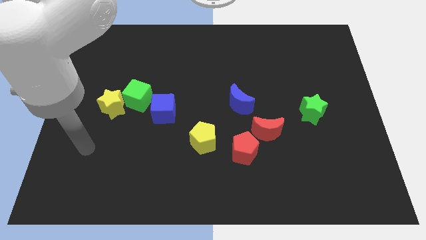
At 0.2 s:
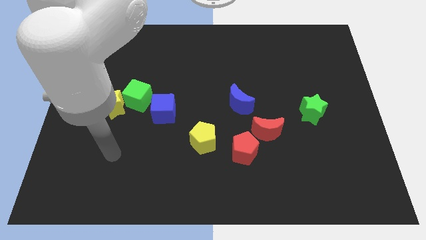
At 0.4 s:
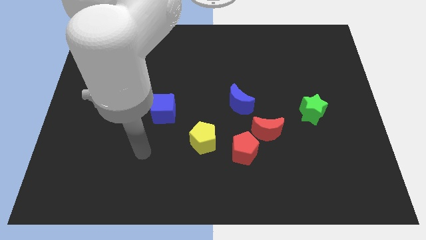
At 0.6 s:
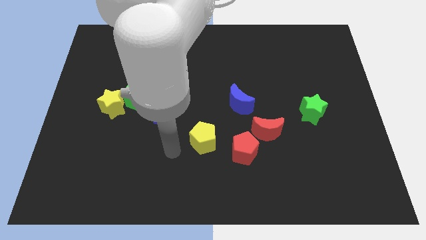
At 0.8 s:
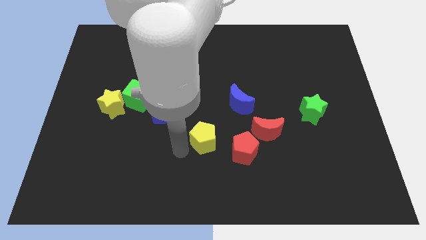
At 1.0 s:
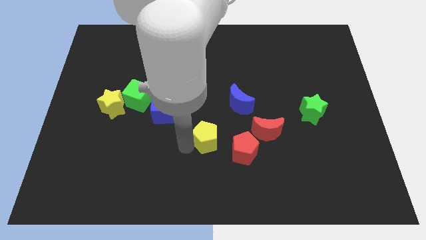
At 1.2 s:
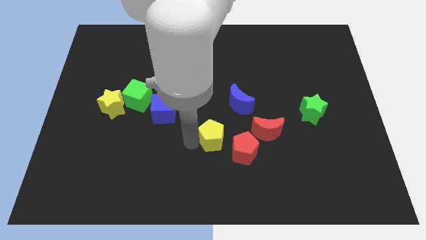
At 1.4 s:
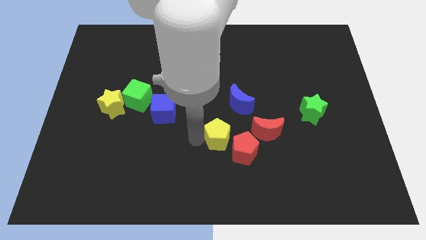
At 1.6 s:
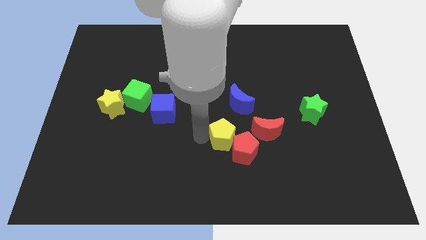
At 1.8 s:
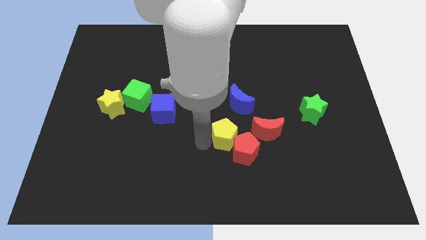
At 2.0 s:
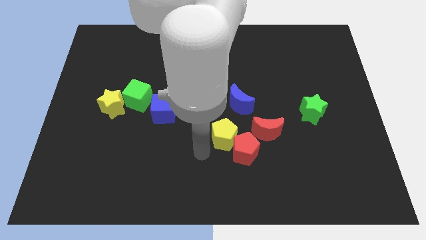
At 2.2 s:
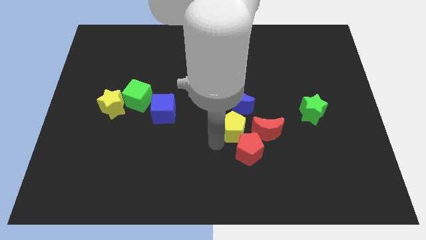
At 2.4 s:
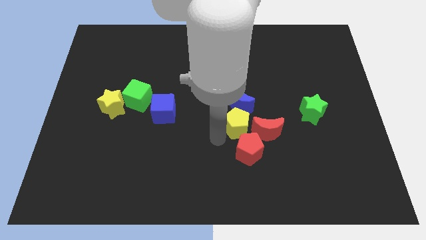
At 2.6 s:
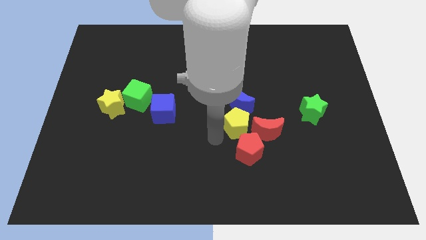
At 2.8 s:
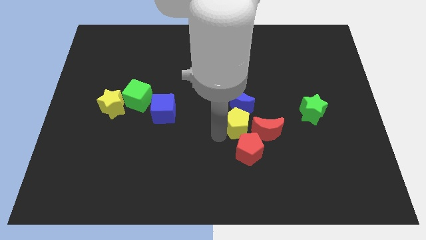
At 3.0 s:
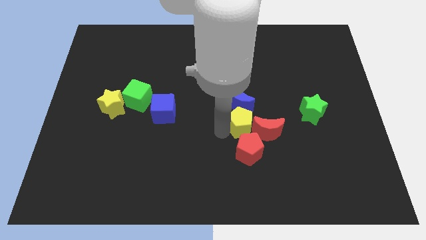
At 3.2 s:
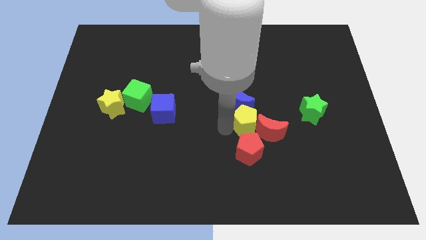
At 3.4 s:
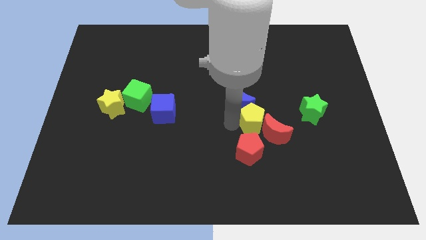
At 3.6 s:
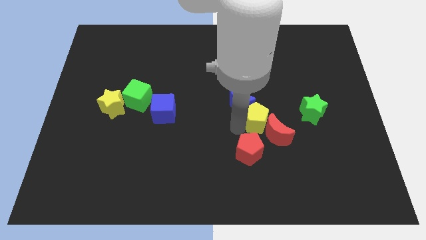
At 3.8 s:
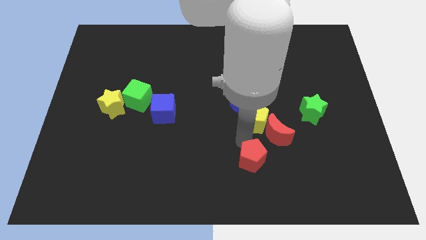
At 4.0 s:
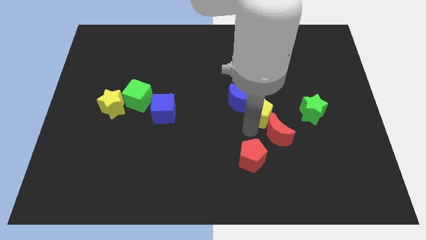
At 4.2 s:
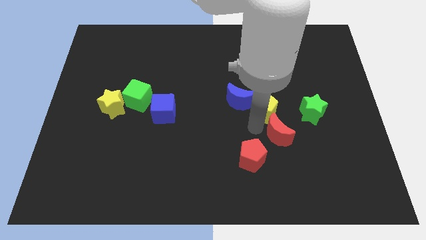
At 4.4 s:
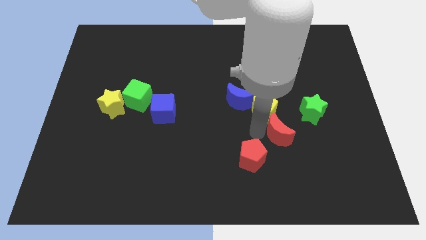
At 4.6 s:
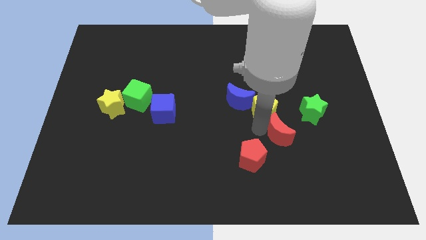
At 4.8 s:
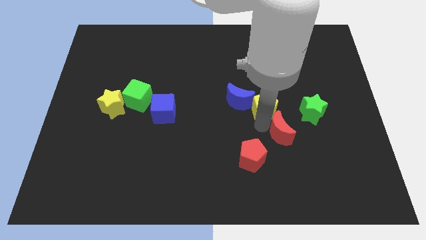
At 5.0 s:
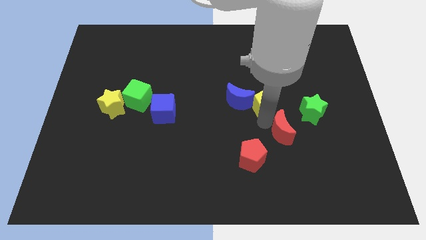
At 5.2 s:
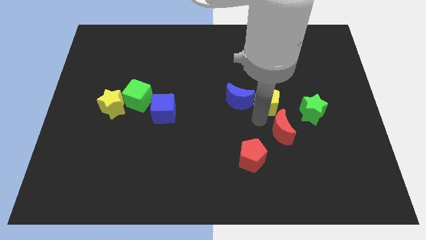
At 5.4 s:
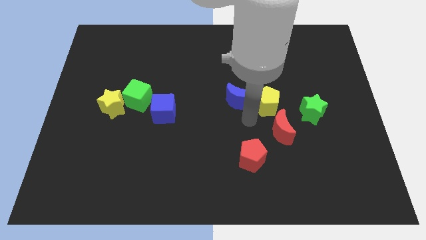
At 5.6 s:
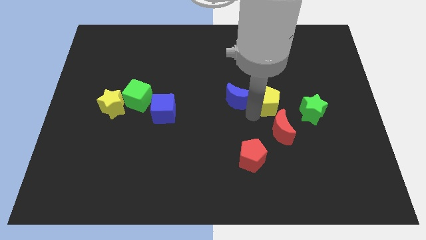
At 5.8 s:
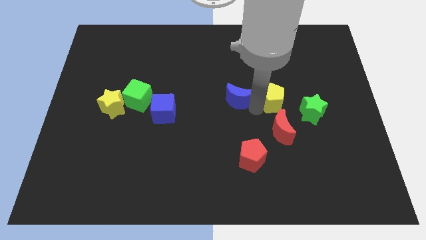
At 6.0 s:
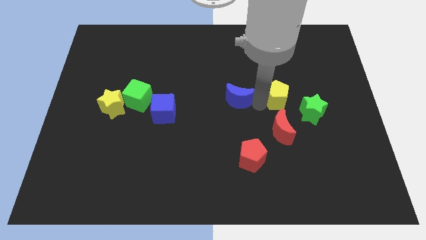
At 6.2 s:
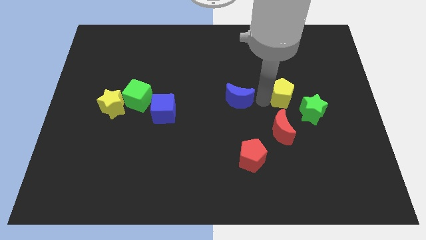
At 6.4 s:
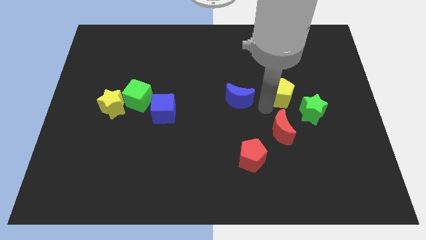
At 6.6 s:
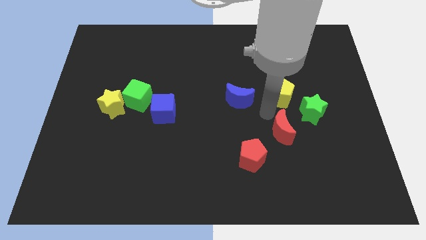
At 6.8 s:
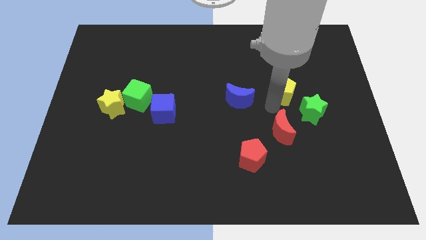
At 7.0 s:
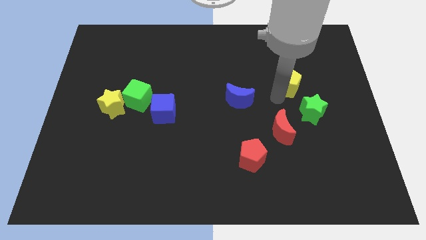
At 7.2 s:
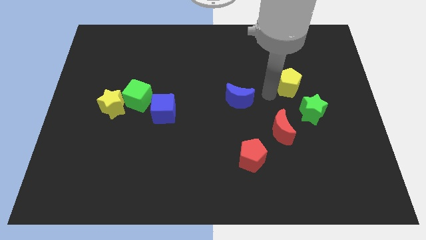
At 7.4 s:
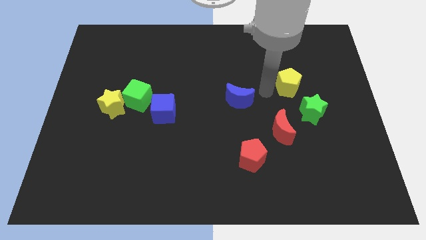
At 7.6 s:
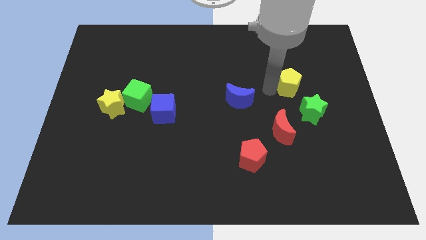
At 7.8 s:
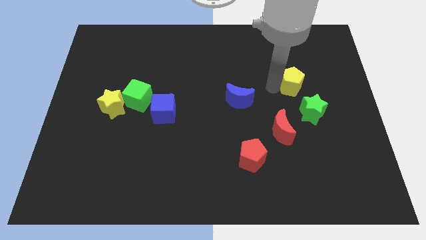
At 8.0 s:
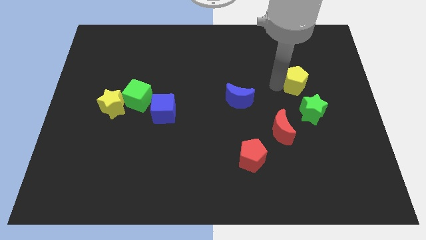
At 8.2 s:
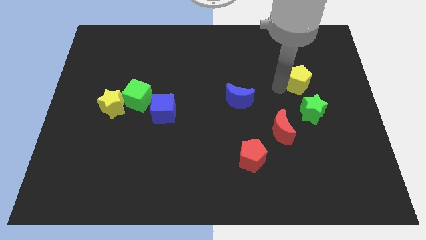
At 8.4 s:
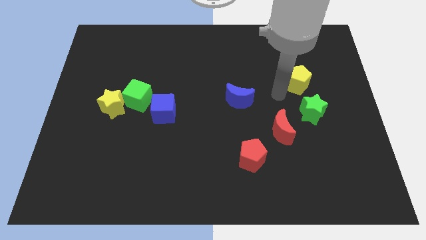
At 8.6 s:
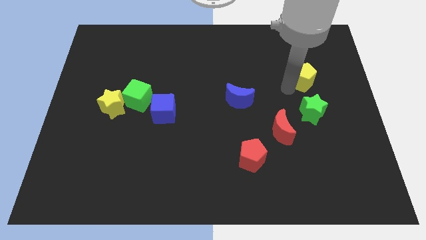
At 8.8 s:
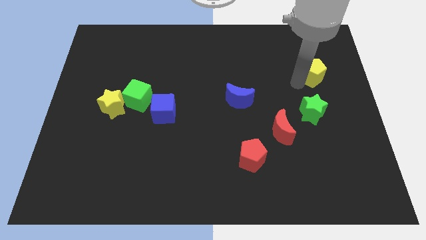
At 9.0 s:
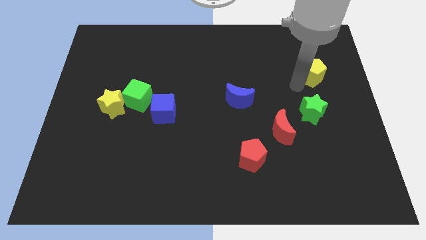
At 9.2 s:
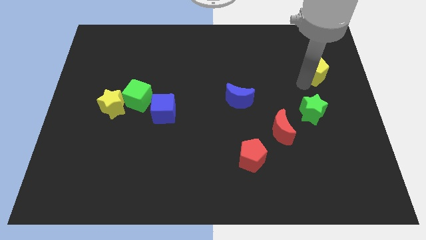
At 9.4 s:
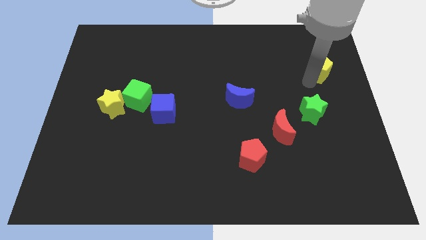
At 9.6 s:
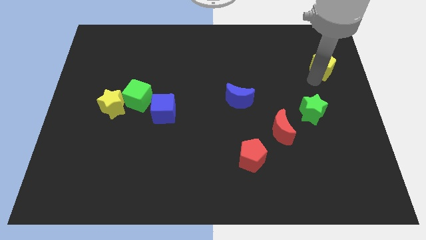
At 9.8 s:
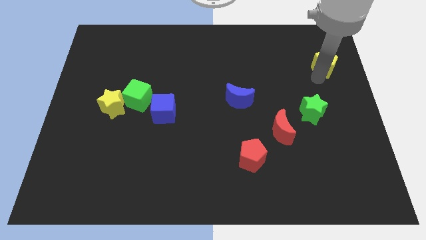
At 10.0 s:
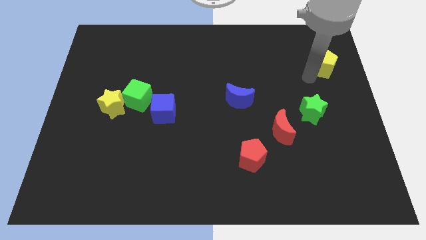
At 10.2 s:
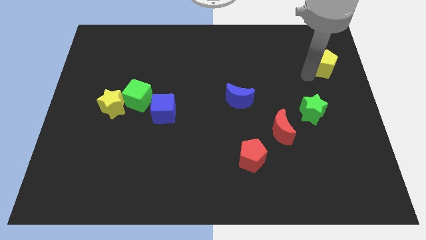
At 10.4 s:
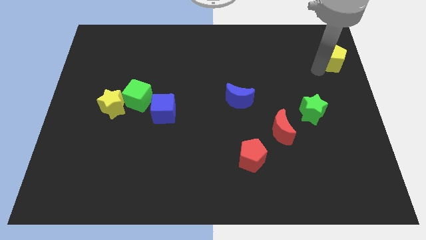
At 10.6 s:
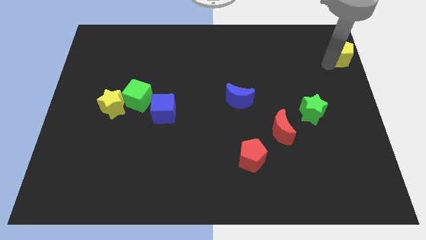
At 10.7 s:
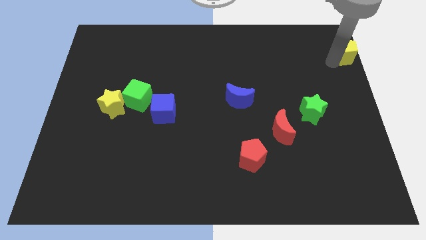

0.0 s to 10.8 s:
push the yellow pentagon to the top right of the board
